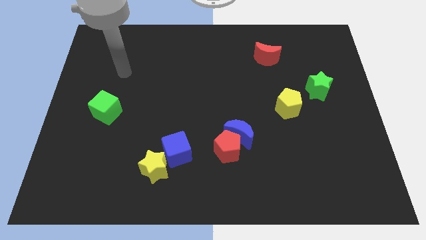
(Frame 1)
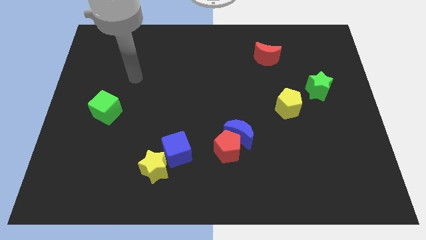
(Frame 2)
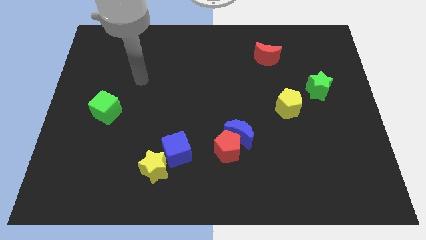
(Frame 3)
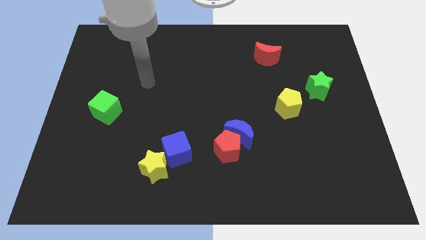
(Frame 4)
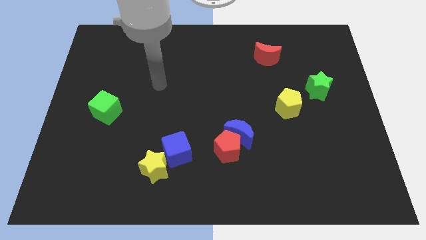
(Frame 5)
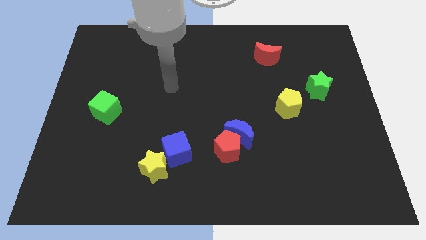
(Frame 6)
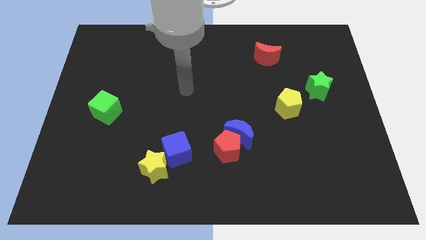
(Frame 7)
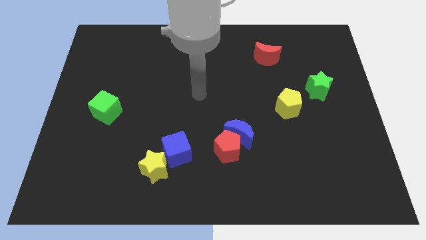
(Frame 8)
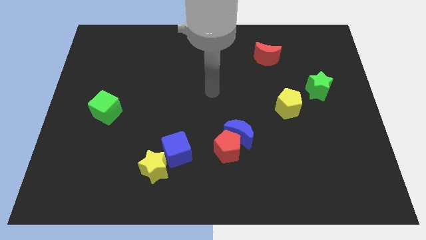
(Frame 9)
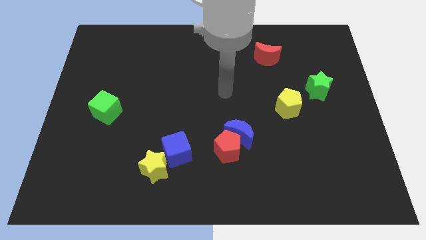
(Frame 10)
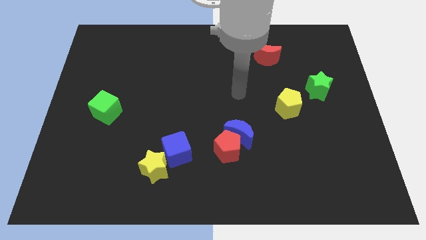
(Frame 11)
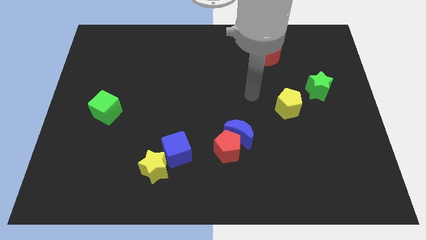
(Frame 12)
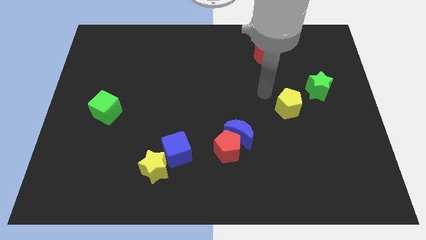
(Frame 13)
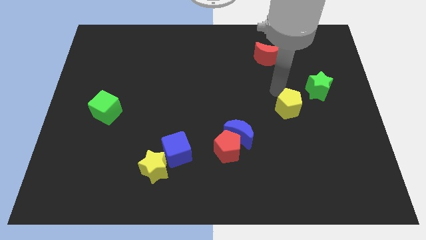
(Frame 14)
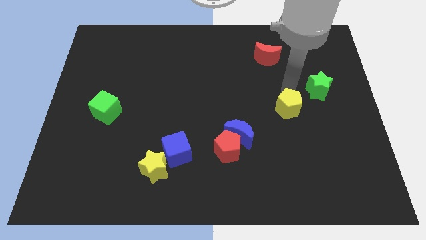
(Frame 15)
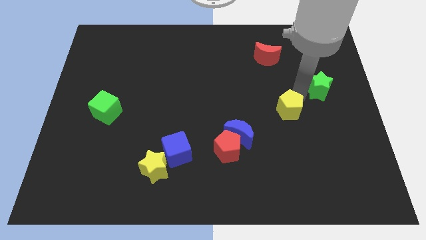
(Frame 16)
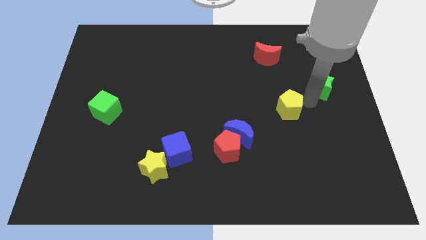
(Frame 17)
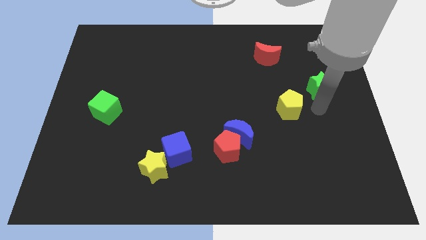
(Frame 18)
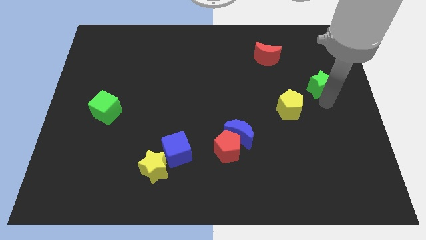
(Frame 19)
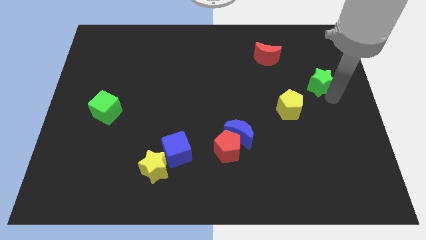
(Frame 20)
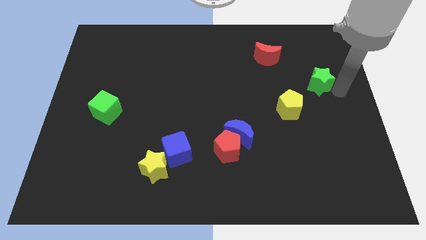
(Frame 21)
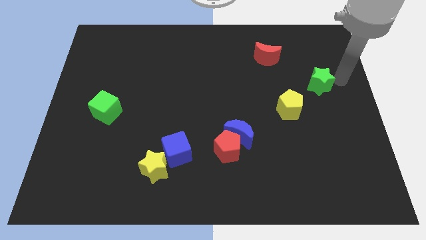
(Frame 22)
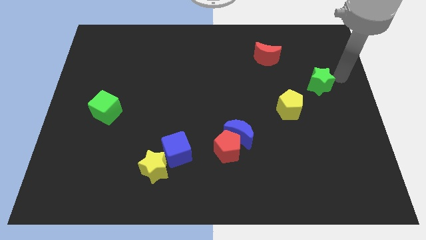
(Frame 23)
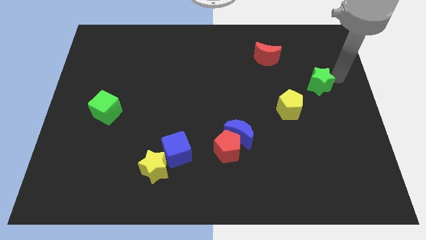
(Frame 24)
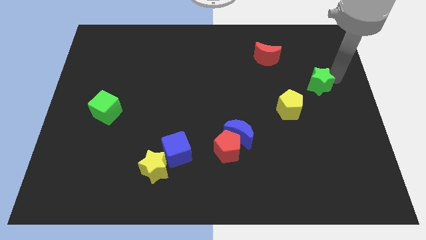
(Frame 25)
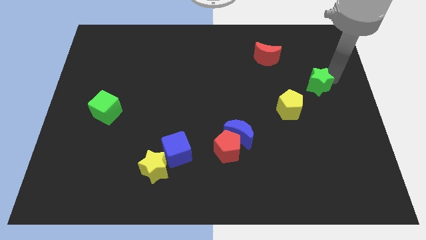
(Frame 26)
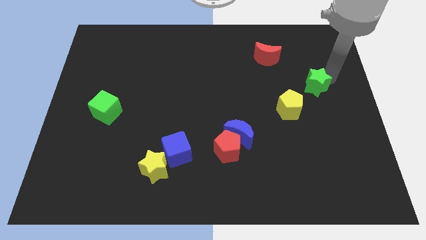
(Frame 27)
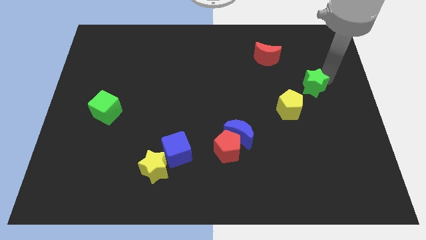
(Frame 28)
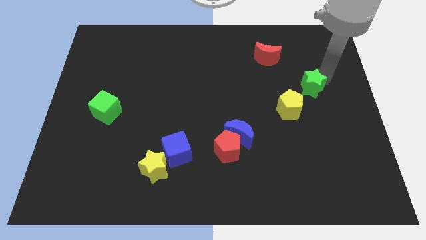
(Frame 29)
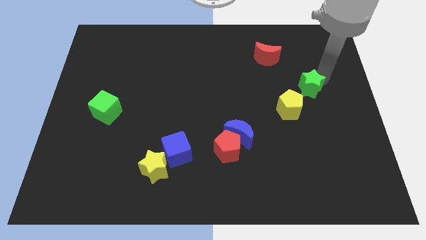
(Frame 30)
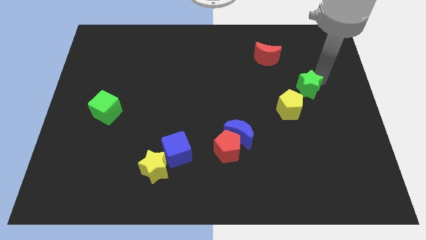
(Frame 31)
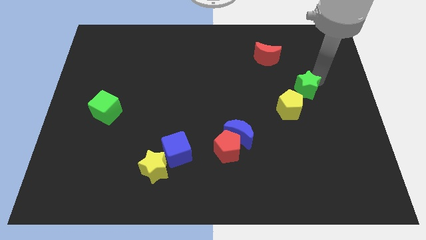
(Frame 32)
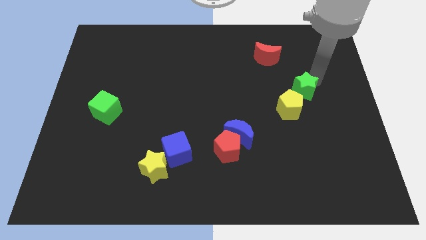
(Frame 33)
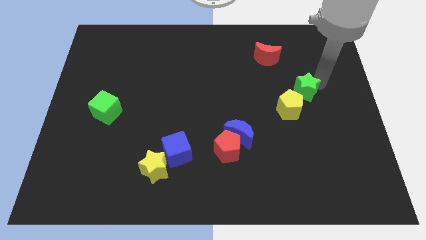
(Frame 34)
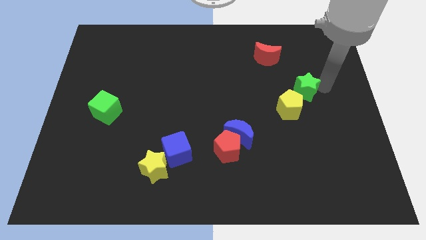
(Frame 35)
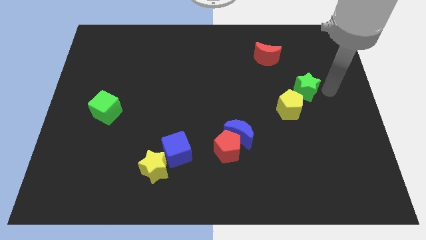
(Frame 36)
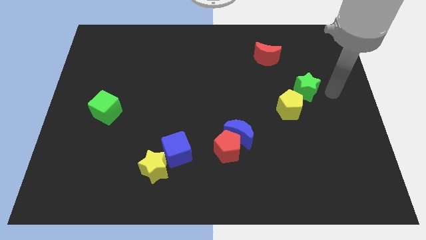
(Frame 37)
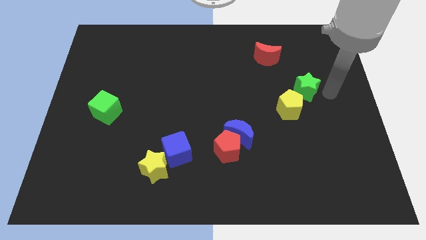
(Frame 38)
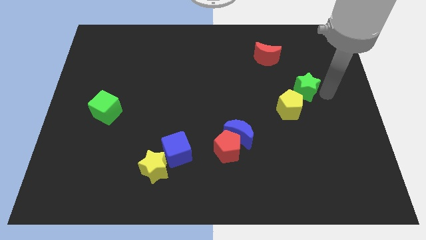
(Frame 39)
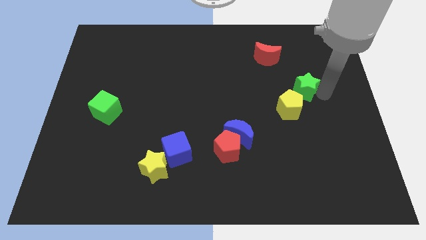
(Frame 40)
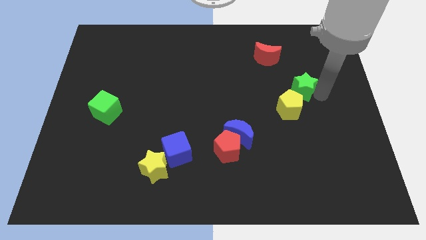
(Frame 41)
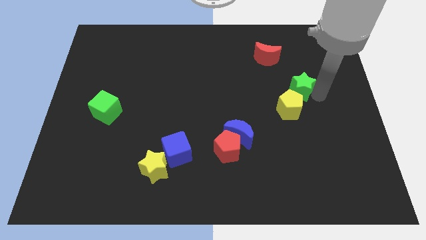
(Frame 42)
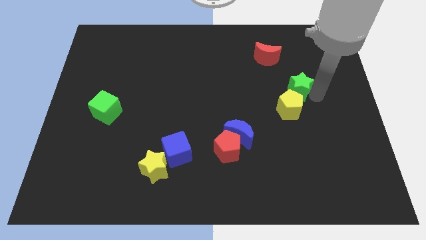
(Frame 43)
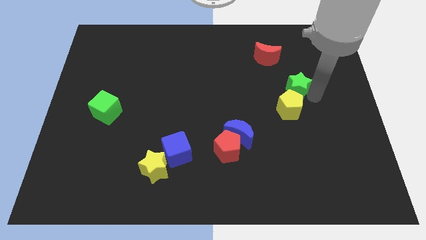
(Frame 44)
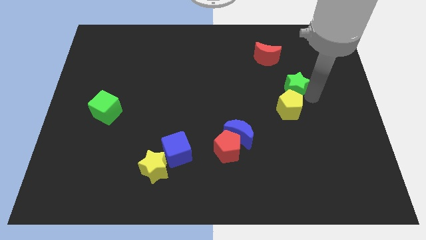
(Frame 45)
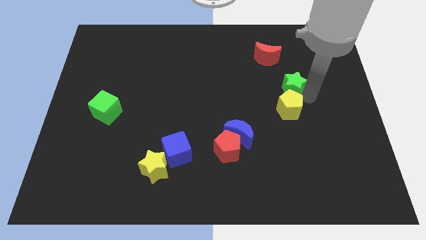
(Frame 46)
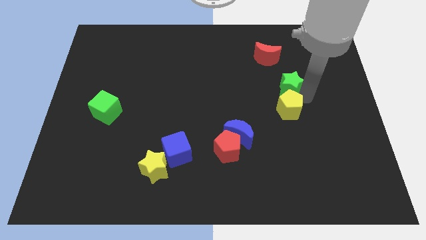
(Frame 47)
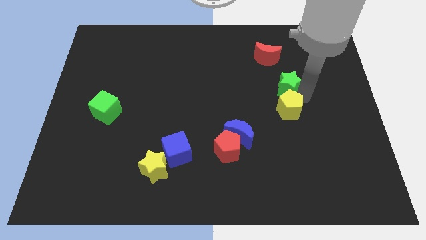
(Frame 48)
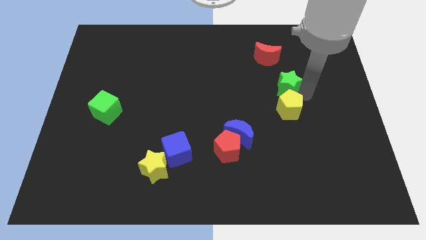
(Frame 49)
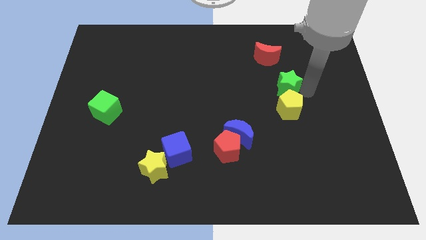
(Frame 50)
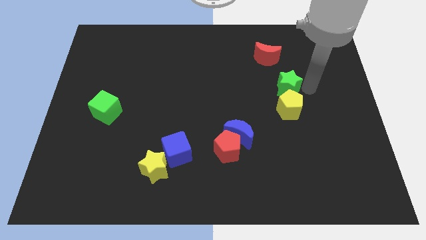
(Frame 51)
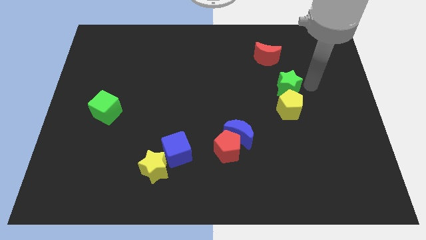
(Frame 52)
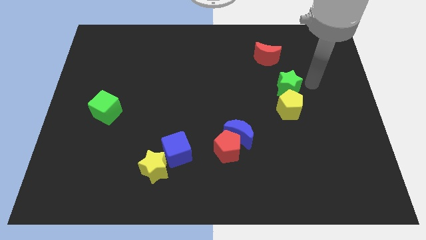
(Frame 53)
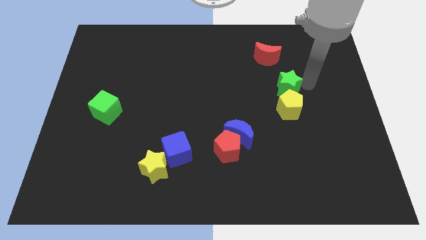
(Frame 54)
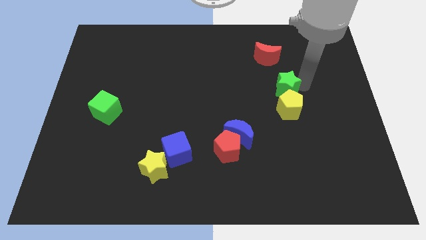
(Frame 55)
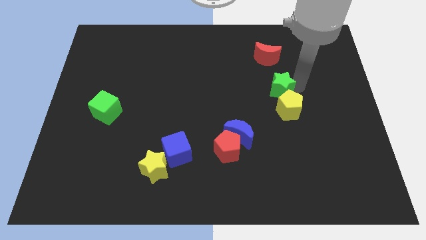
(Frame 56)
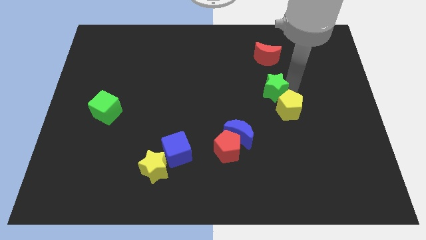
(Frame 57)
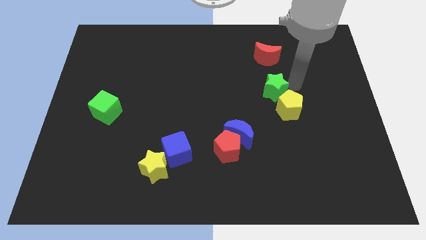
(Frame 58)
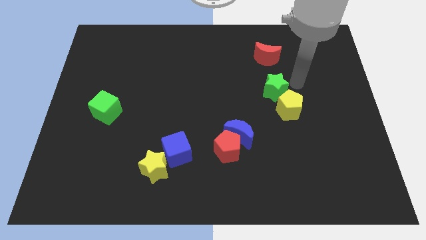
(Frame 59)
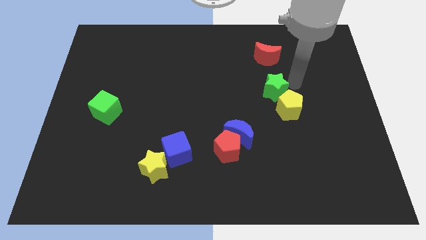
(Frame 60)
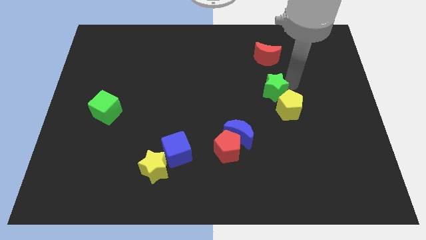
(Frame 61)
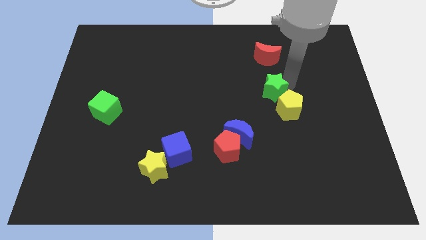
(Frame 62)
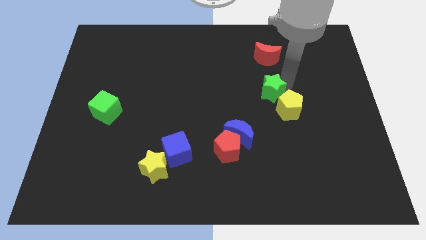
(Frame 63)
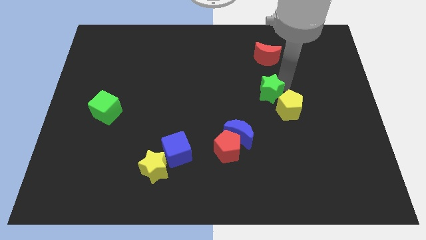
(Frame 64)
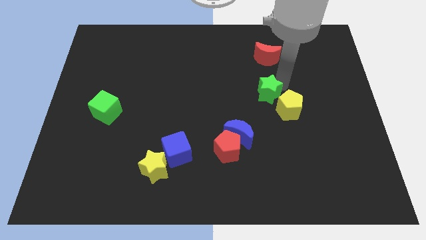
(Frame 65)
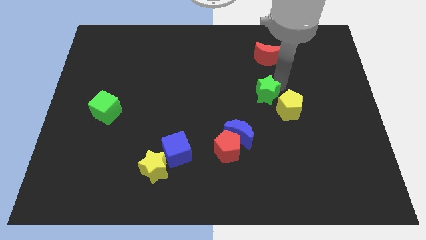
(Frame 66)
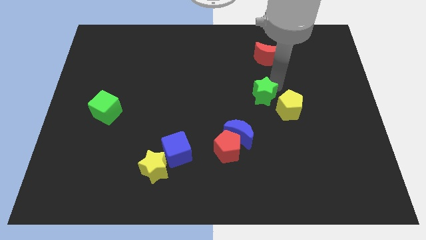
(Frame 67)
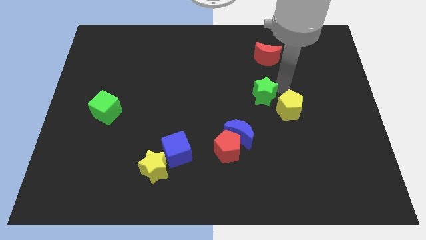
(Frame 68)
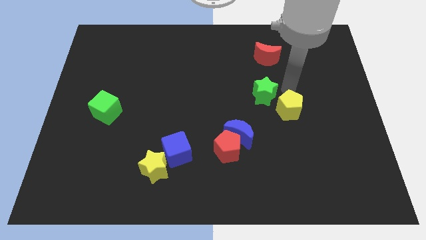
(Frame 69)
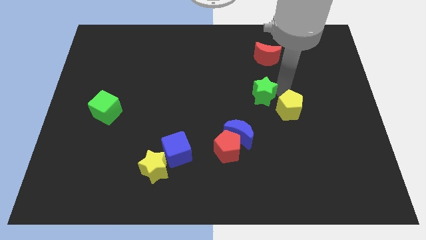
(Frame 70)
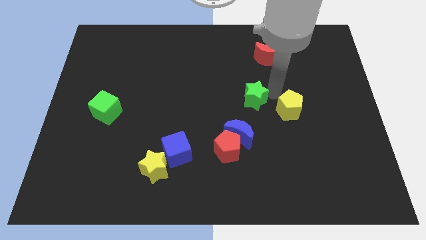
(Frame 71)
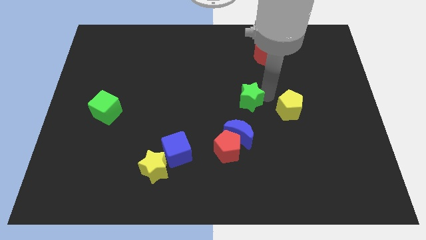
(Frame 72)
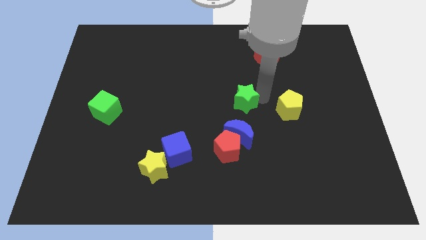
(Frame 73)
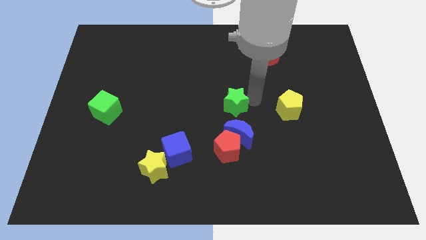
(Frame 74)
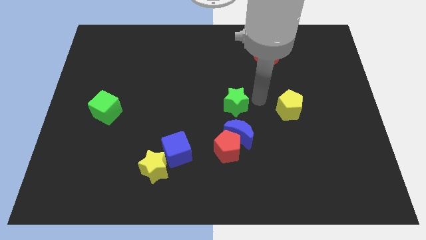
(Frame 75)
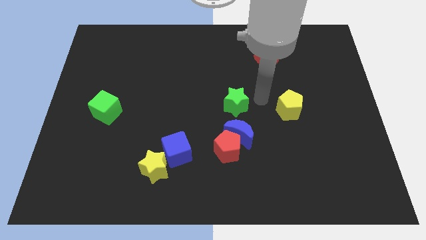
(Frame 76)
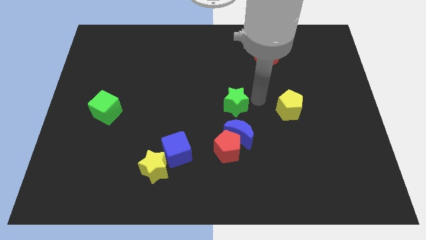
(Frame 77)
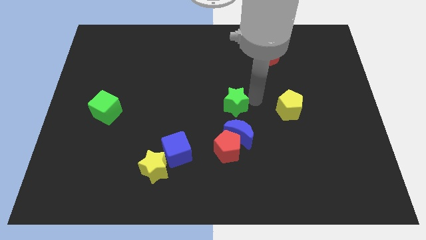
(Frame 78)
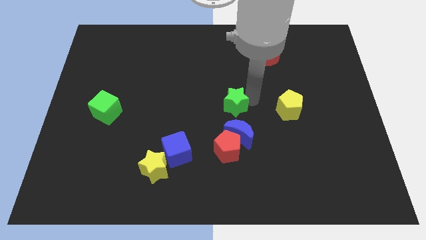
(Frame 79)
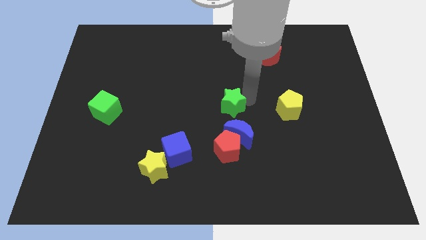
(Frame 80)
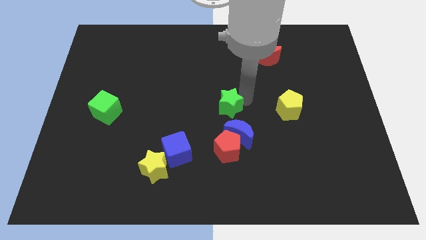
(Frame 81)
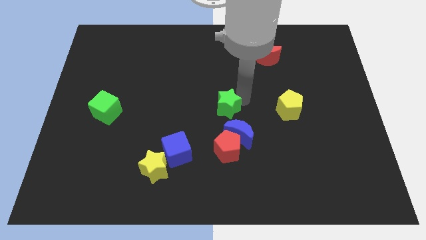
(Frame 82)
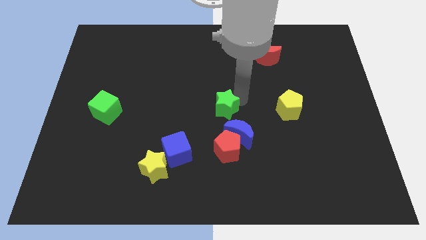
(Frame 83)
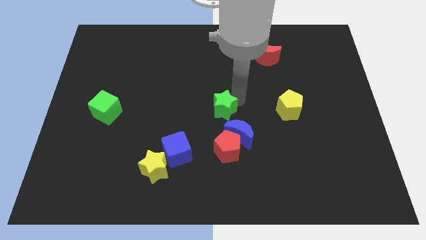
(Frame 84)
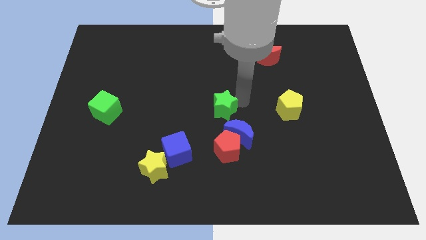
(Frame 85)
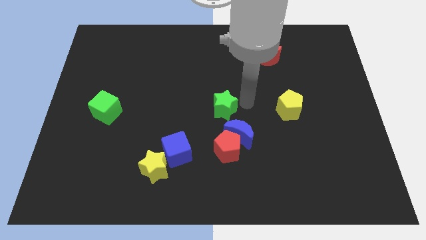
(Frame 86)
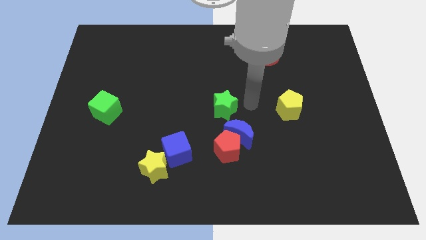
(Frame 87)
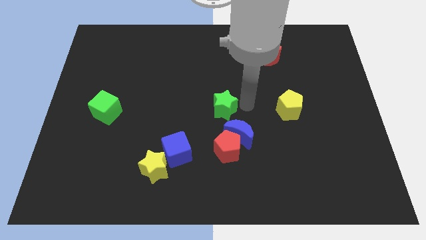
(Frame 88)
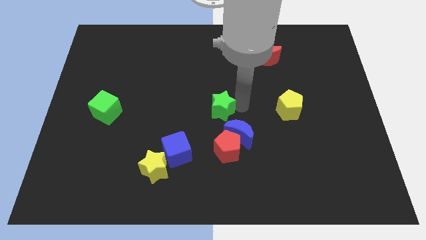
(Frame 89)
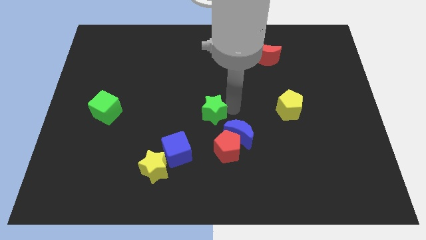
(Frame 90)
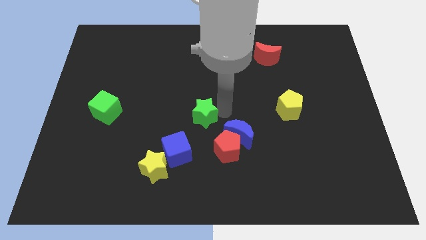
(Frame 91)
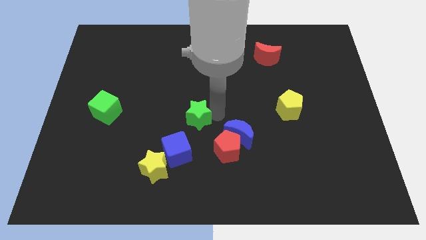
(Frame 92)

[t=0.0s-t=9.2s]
move the green star above the blue cube
